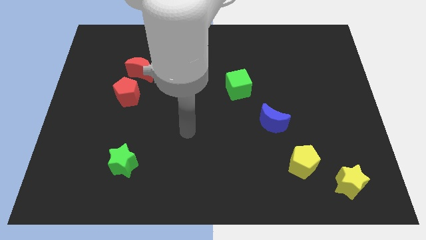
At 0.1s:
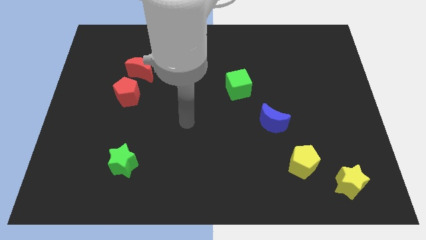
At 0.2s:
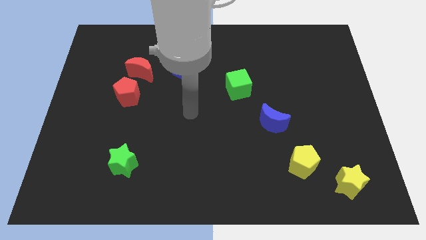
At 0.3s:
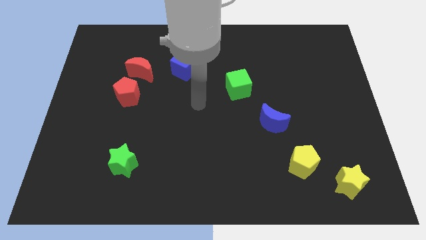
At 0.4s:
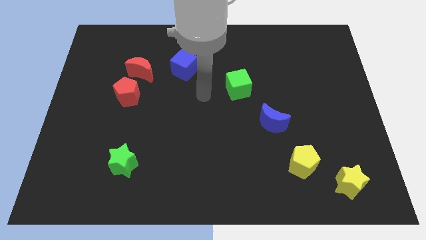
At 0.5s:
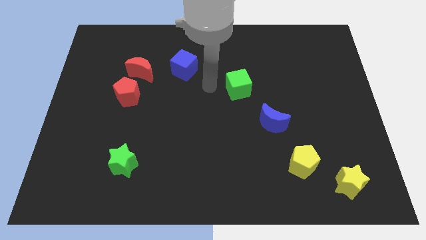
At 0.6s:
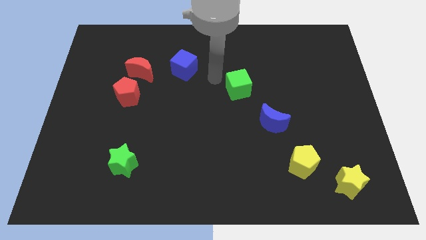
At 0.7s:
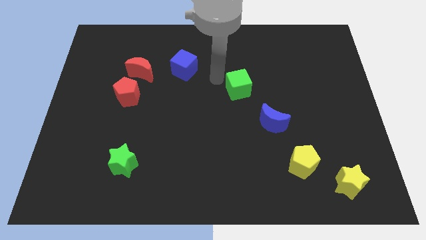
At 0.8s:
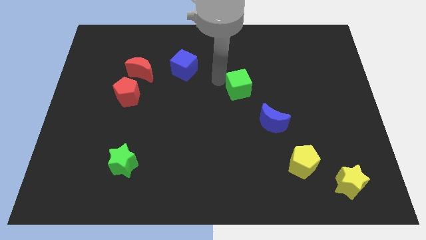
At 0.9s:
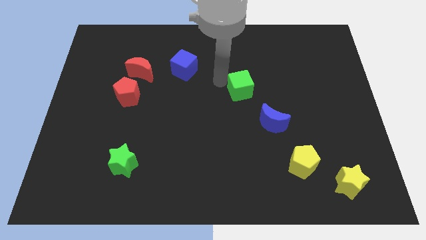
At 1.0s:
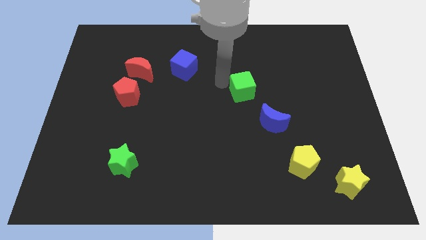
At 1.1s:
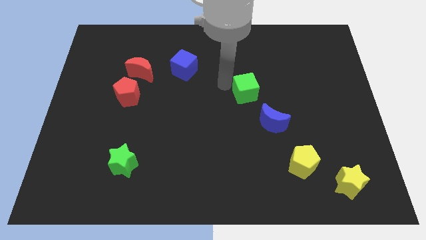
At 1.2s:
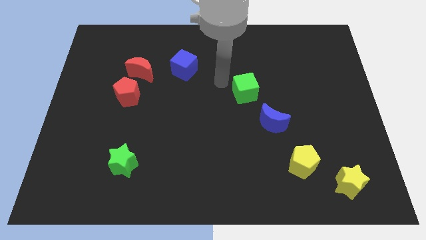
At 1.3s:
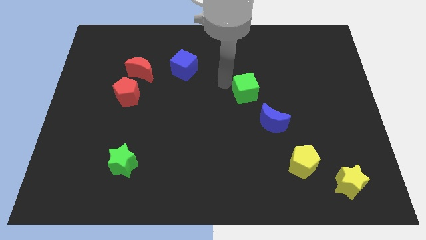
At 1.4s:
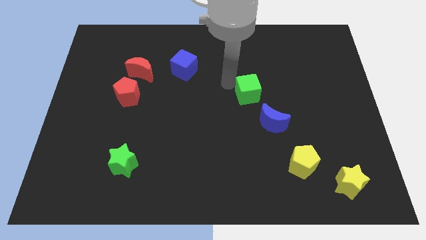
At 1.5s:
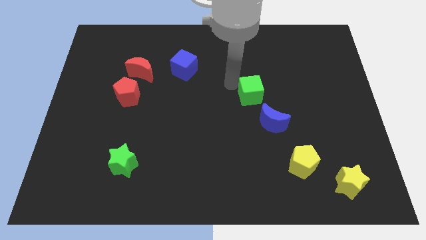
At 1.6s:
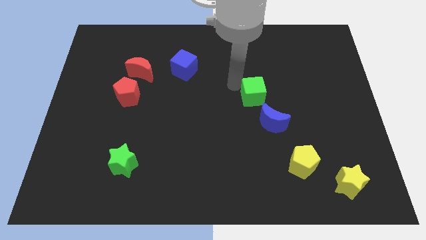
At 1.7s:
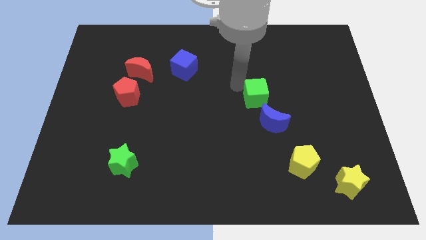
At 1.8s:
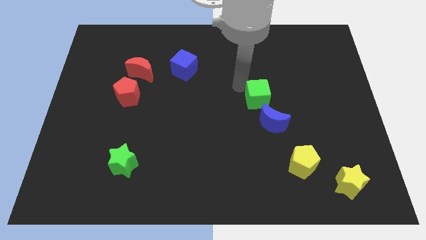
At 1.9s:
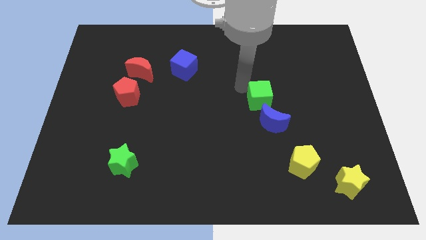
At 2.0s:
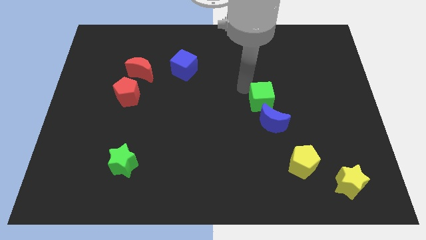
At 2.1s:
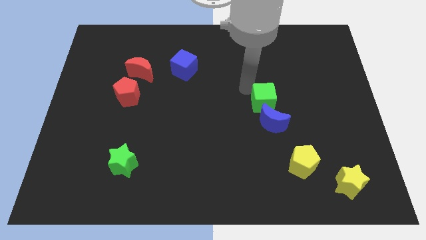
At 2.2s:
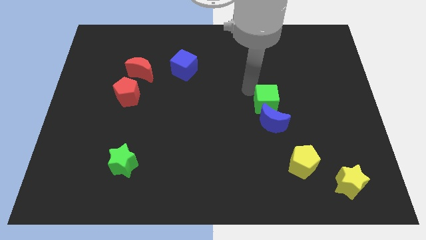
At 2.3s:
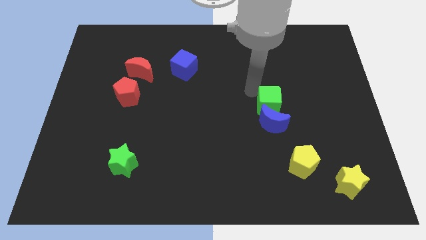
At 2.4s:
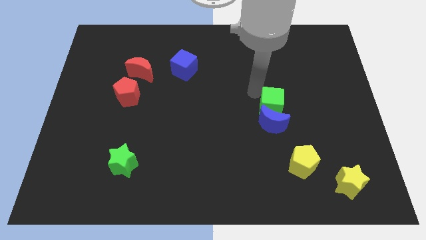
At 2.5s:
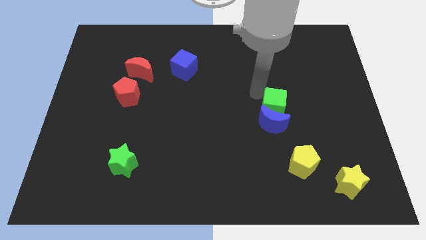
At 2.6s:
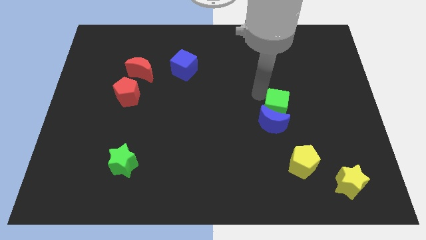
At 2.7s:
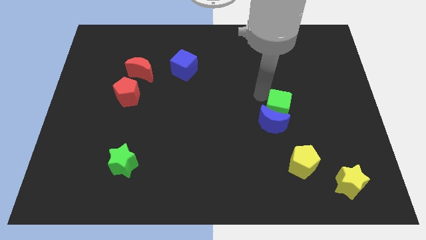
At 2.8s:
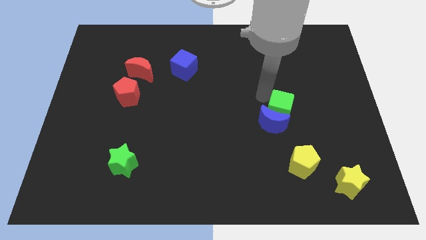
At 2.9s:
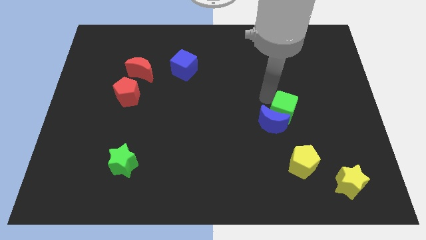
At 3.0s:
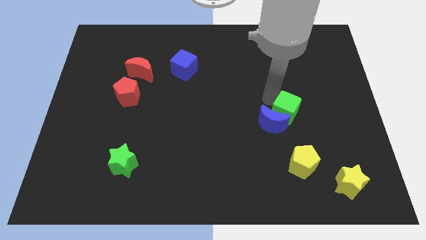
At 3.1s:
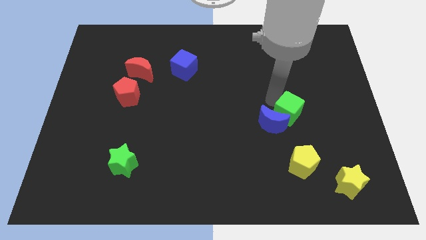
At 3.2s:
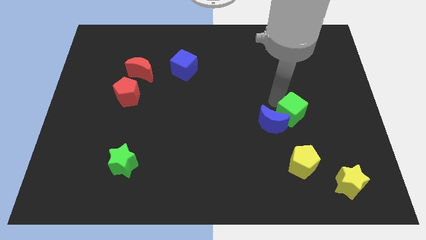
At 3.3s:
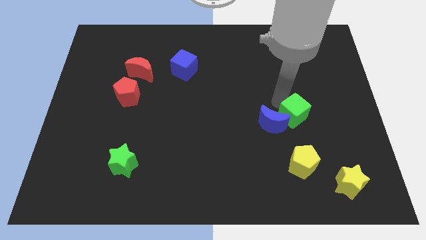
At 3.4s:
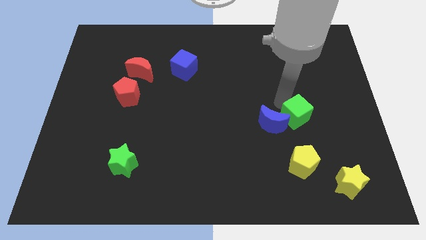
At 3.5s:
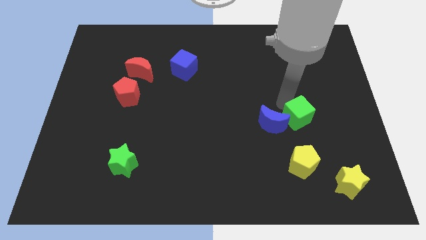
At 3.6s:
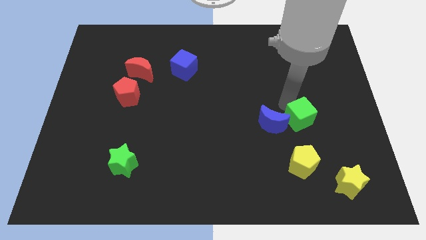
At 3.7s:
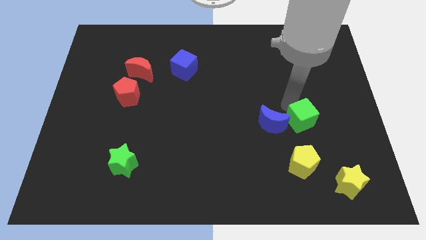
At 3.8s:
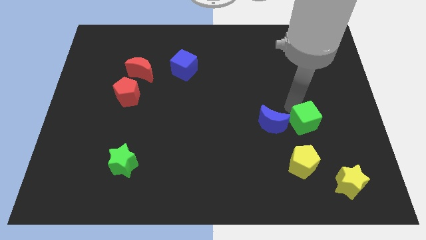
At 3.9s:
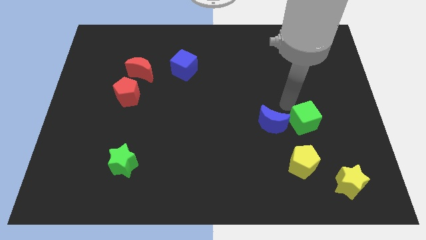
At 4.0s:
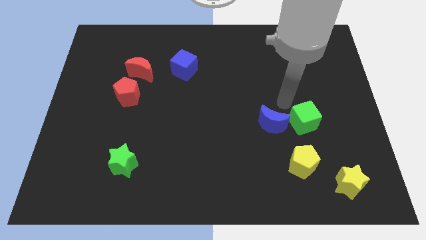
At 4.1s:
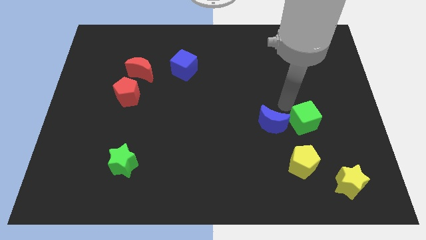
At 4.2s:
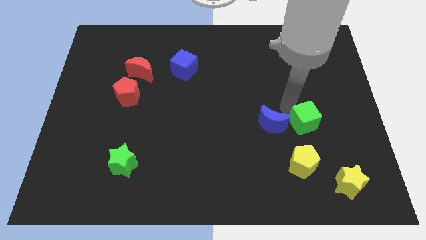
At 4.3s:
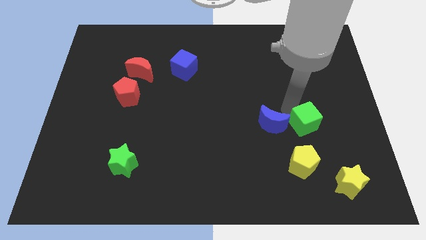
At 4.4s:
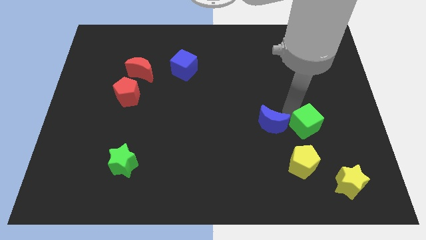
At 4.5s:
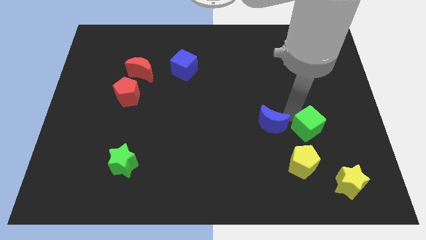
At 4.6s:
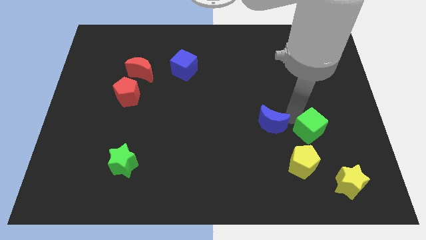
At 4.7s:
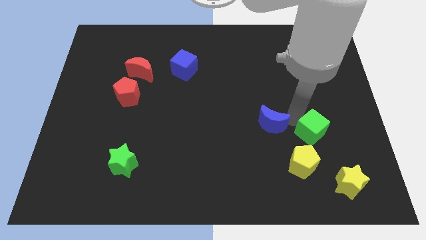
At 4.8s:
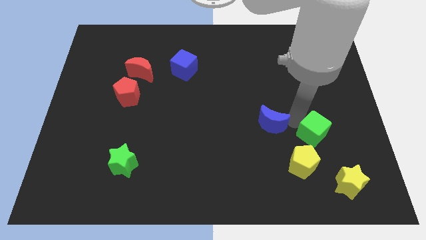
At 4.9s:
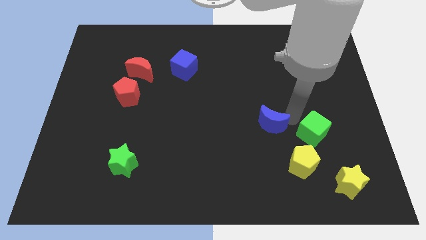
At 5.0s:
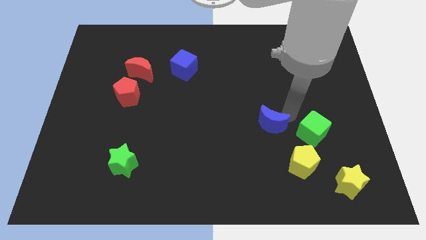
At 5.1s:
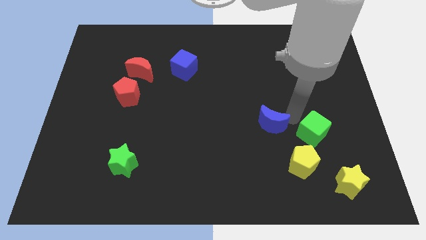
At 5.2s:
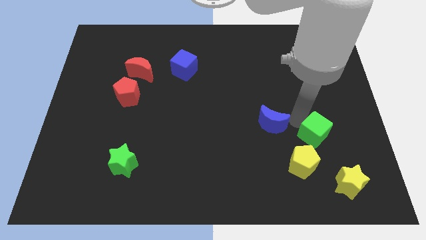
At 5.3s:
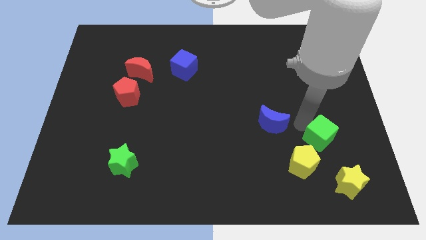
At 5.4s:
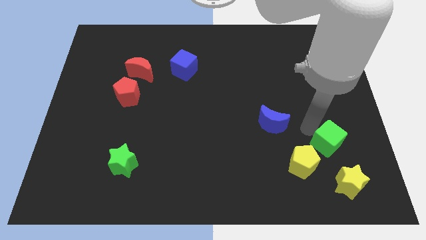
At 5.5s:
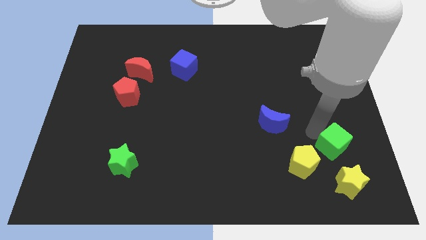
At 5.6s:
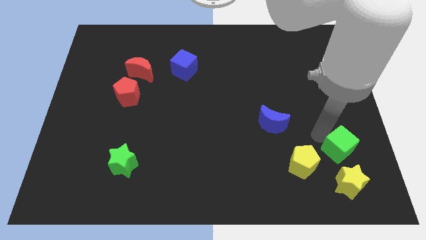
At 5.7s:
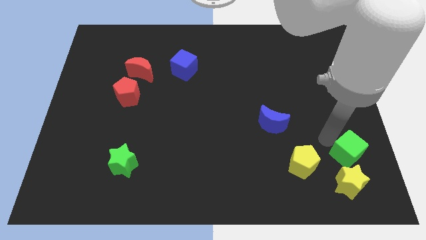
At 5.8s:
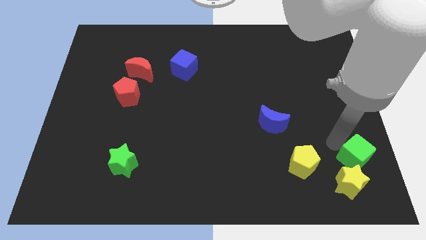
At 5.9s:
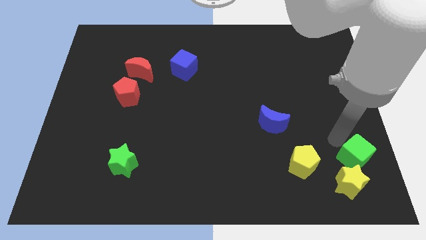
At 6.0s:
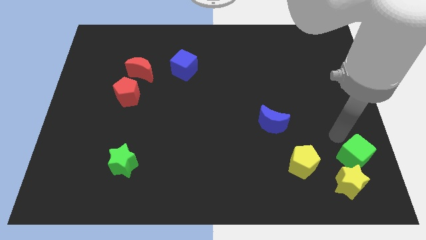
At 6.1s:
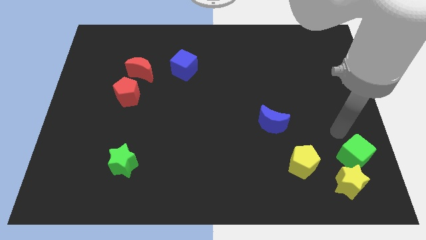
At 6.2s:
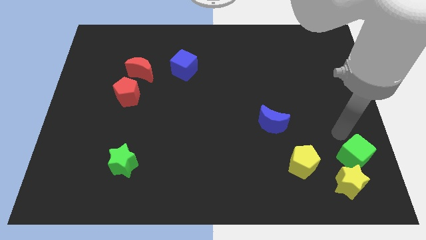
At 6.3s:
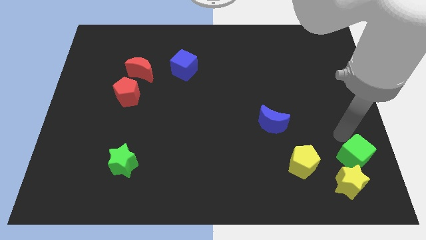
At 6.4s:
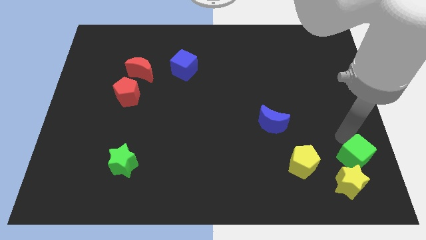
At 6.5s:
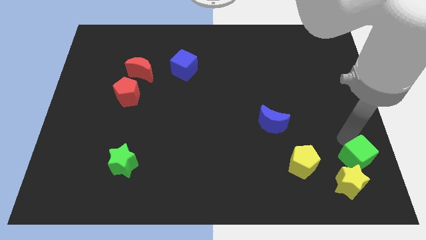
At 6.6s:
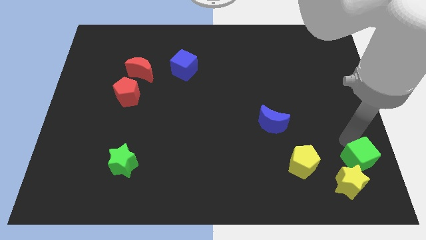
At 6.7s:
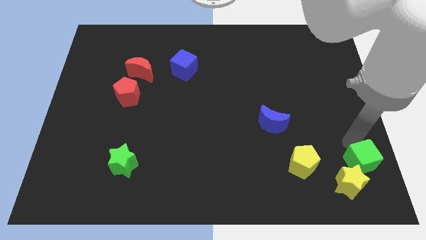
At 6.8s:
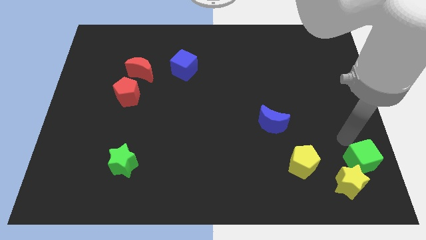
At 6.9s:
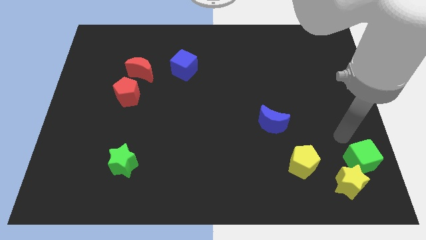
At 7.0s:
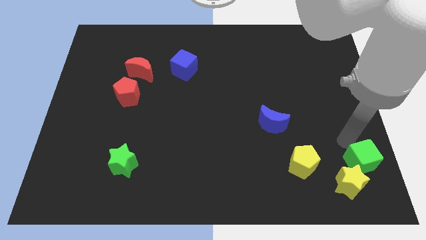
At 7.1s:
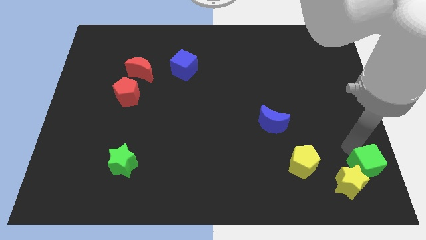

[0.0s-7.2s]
slide the green cube to the bottom right of the board
